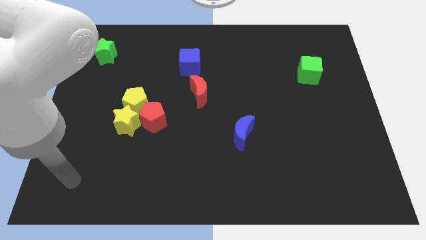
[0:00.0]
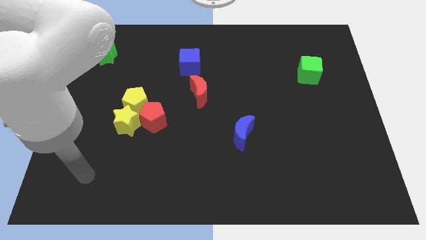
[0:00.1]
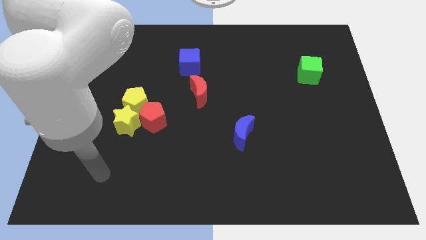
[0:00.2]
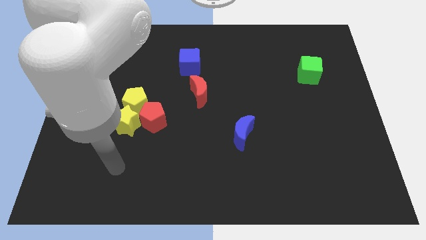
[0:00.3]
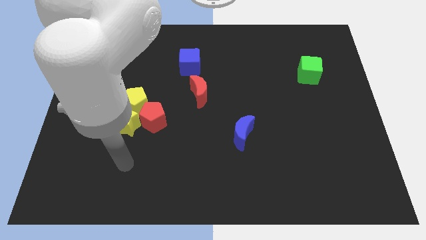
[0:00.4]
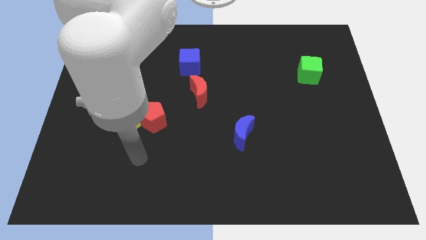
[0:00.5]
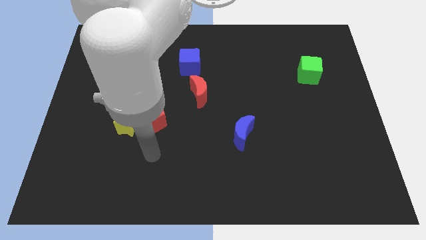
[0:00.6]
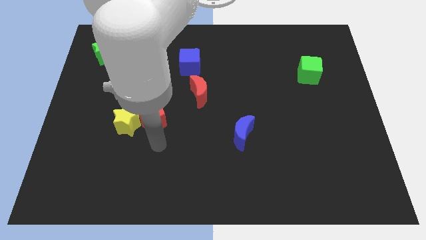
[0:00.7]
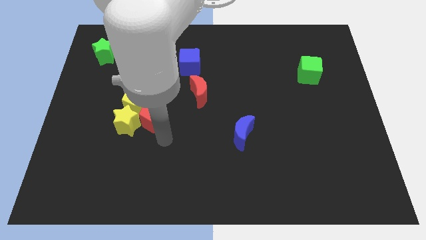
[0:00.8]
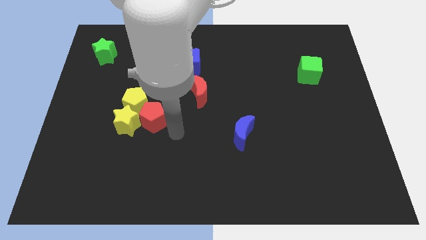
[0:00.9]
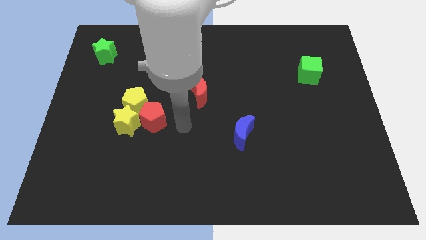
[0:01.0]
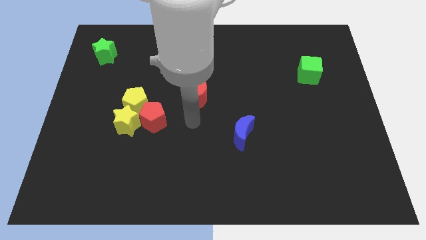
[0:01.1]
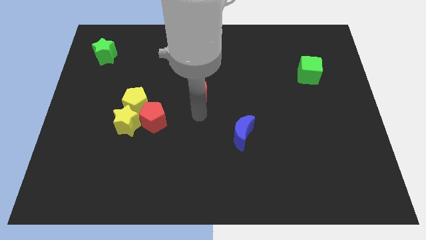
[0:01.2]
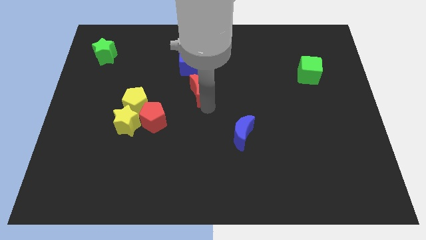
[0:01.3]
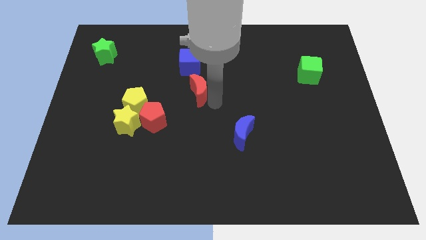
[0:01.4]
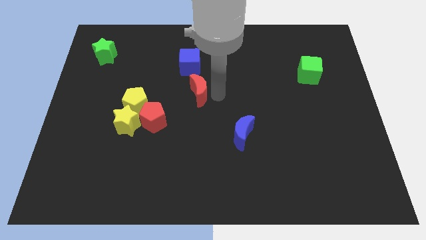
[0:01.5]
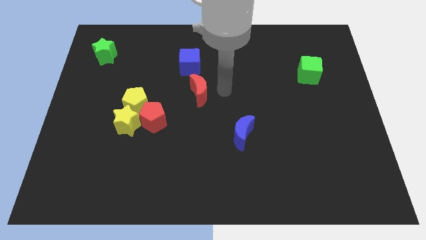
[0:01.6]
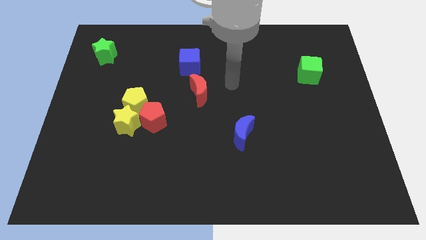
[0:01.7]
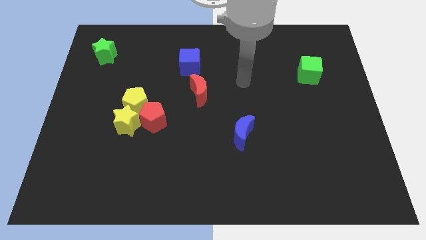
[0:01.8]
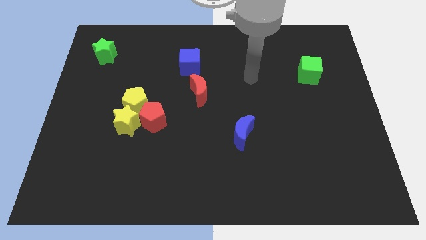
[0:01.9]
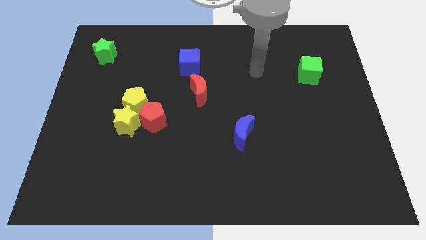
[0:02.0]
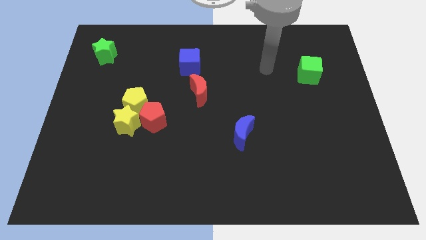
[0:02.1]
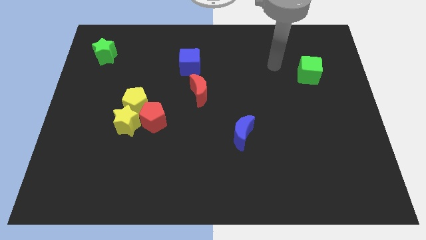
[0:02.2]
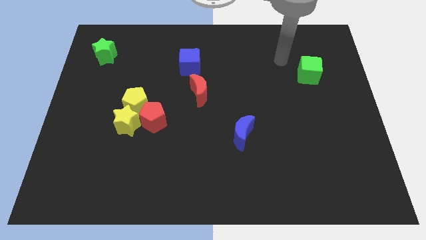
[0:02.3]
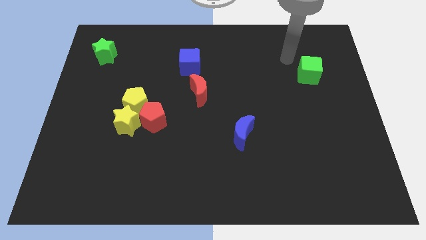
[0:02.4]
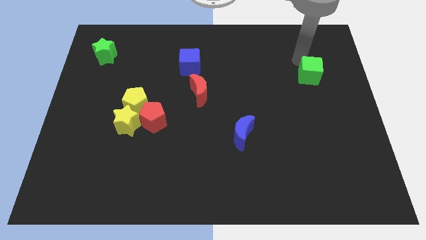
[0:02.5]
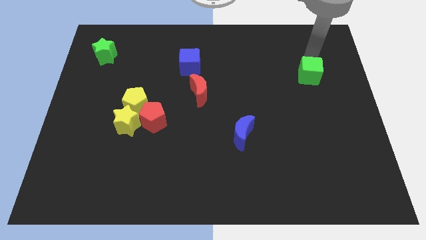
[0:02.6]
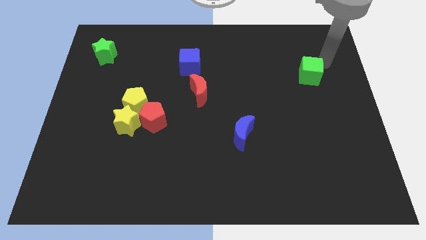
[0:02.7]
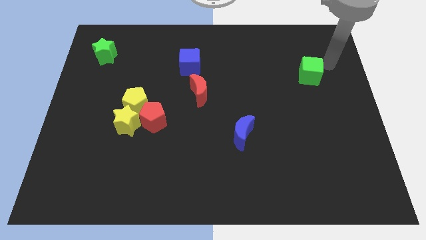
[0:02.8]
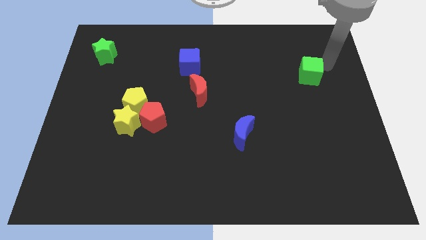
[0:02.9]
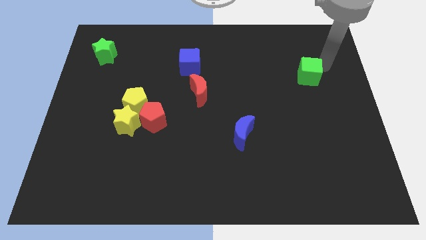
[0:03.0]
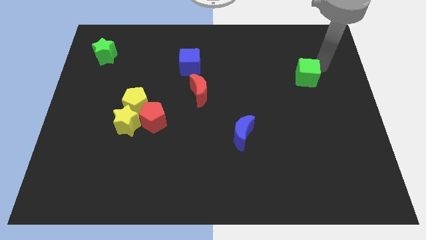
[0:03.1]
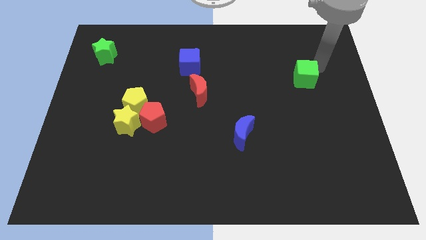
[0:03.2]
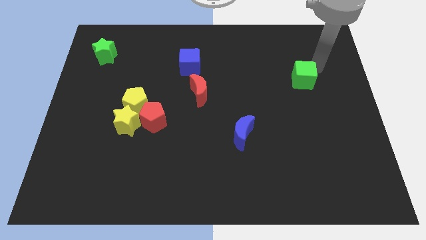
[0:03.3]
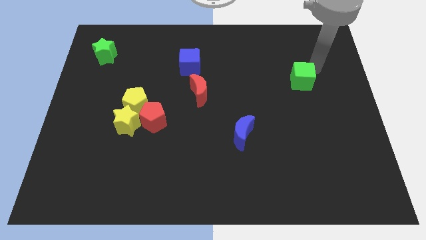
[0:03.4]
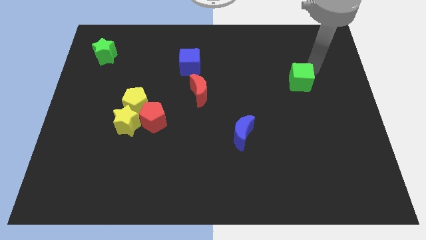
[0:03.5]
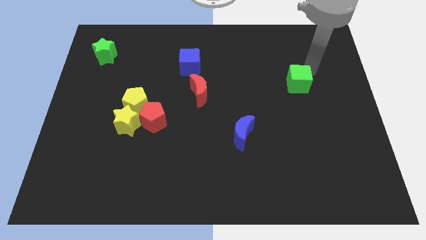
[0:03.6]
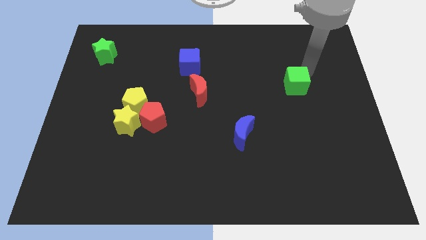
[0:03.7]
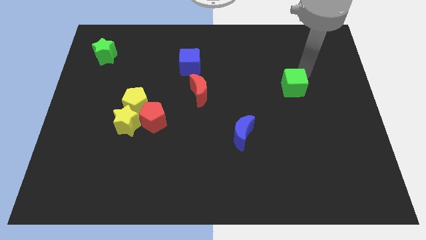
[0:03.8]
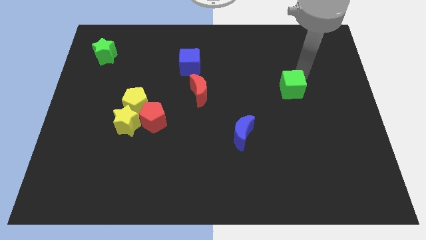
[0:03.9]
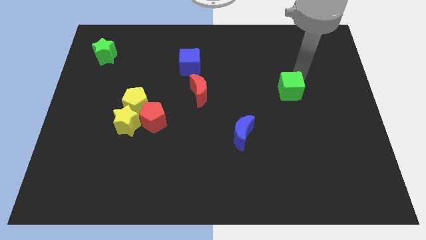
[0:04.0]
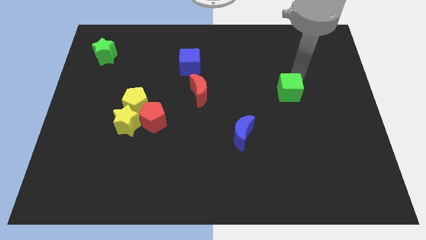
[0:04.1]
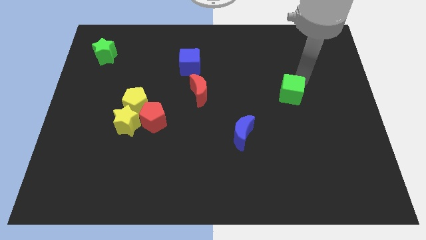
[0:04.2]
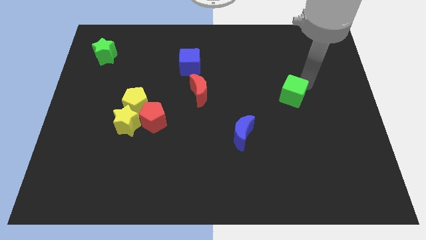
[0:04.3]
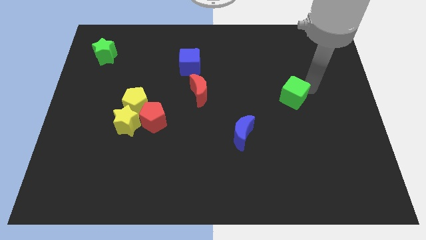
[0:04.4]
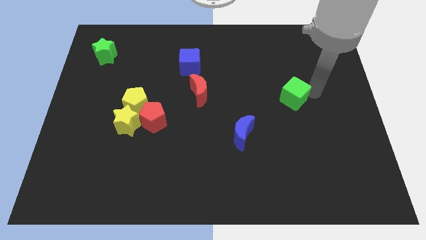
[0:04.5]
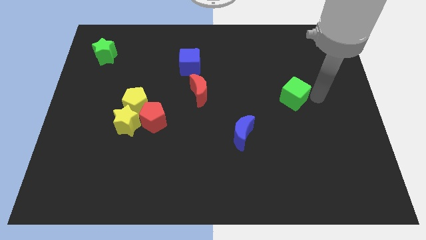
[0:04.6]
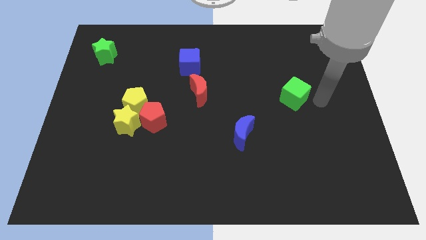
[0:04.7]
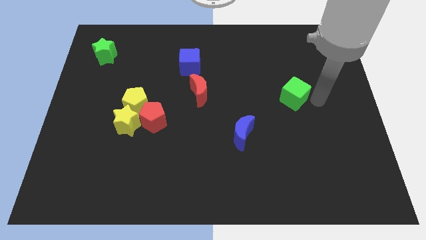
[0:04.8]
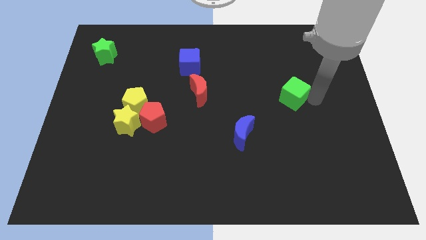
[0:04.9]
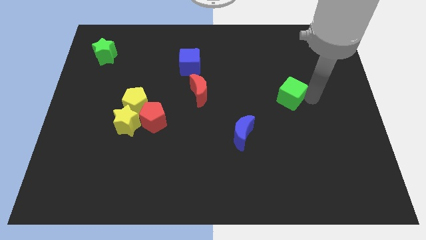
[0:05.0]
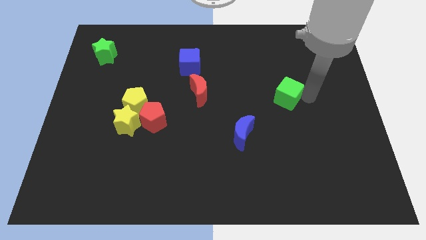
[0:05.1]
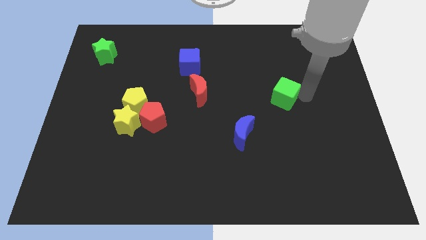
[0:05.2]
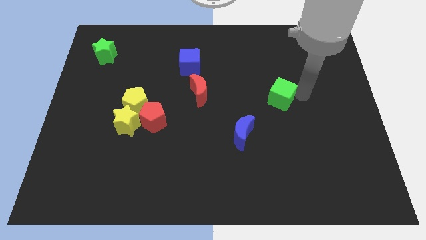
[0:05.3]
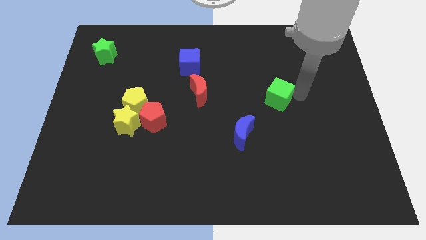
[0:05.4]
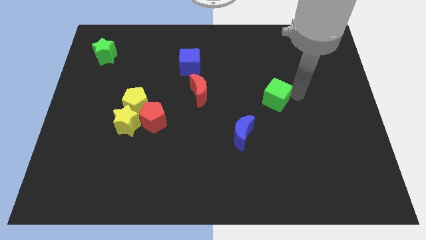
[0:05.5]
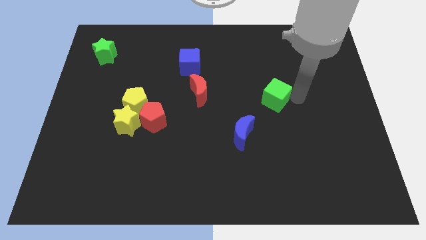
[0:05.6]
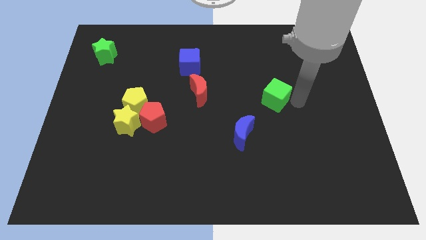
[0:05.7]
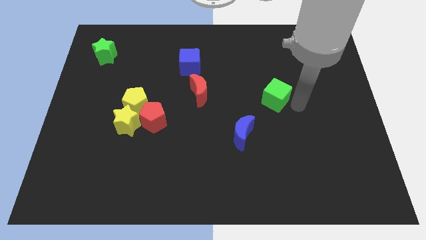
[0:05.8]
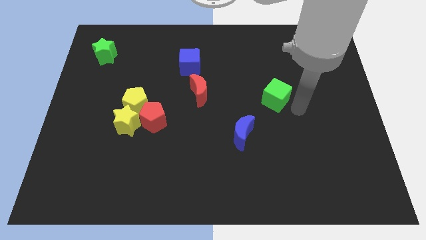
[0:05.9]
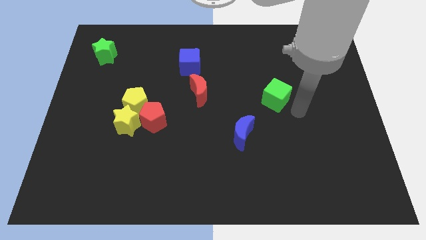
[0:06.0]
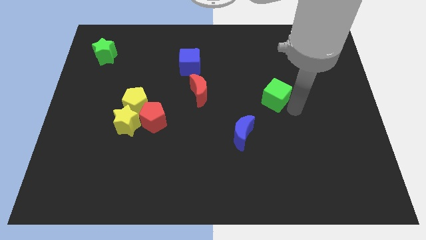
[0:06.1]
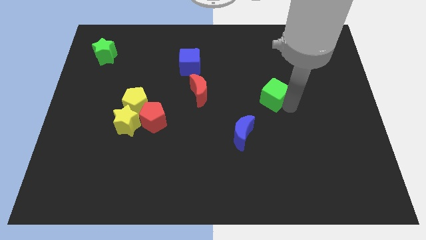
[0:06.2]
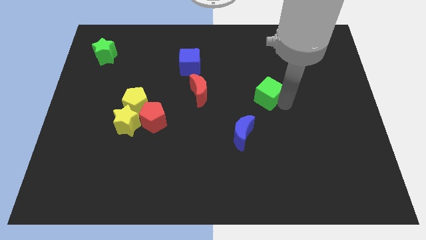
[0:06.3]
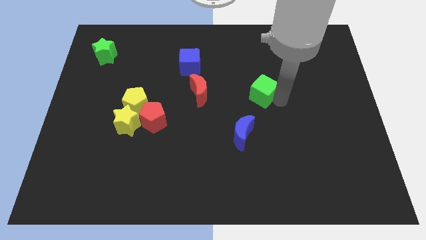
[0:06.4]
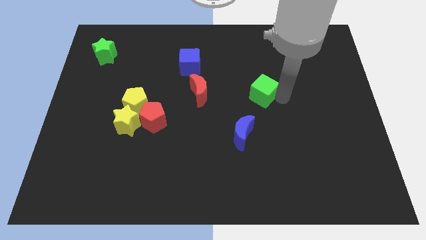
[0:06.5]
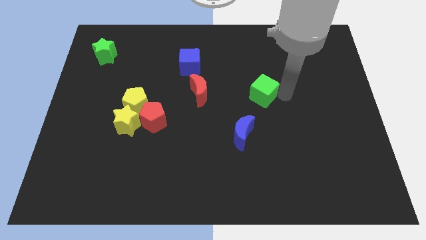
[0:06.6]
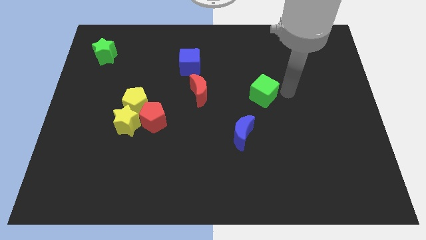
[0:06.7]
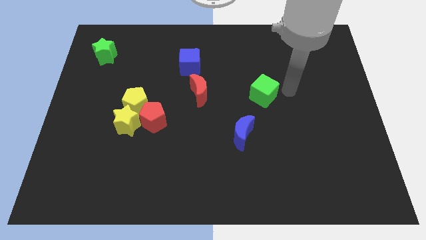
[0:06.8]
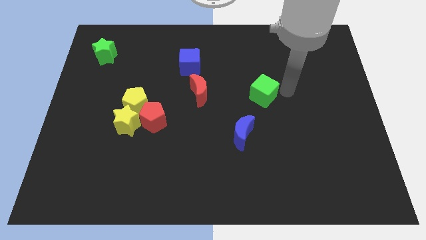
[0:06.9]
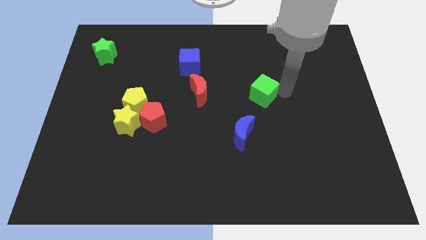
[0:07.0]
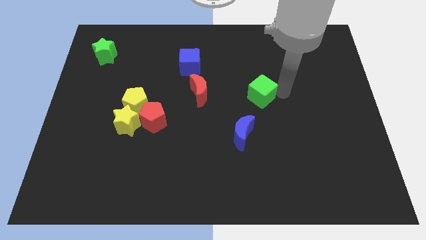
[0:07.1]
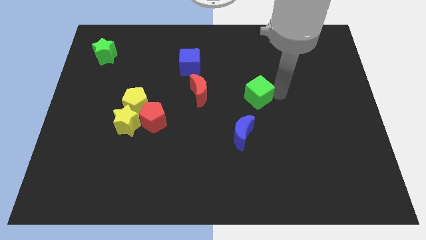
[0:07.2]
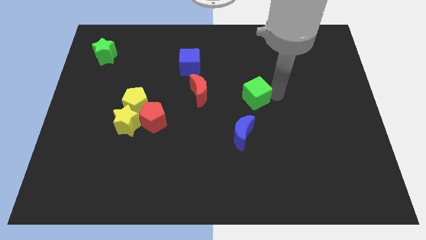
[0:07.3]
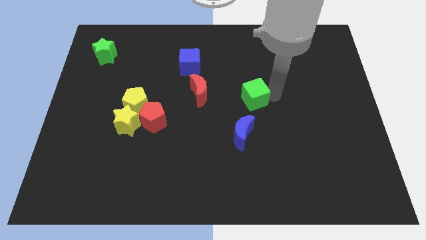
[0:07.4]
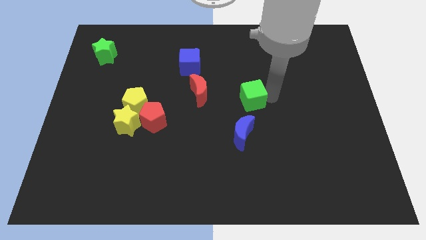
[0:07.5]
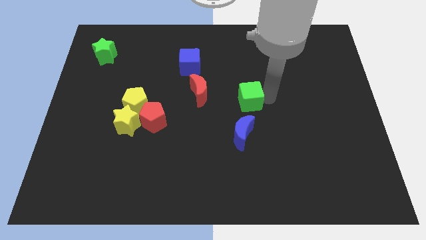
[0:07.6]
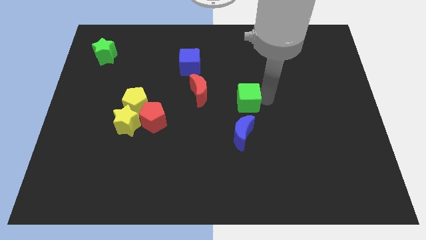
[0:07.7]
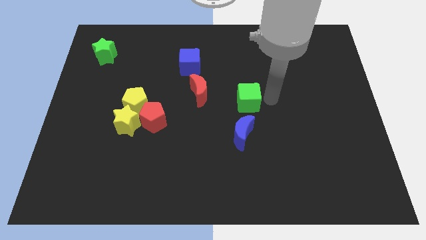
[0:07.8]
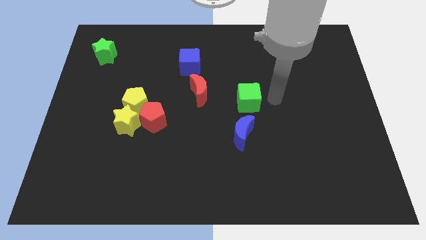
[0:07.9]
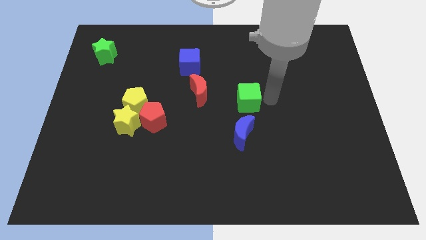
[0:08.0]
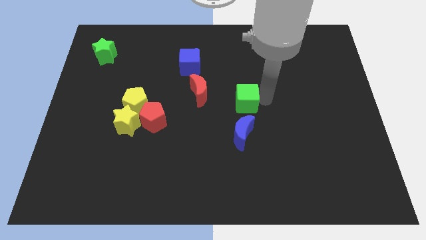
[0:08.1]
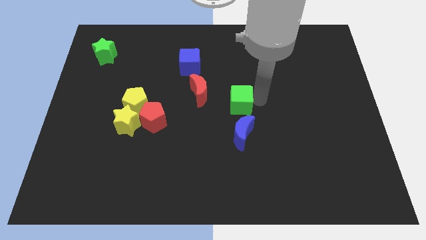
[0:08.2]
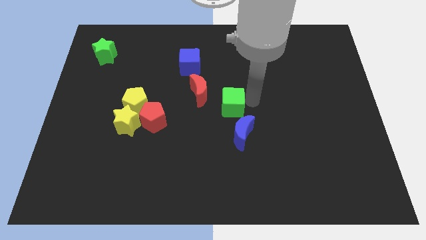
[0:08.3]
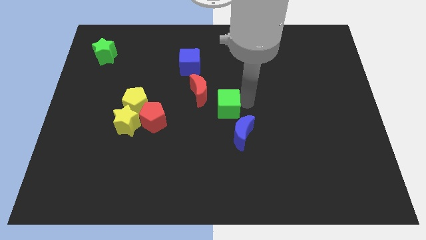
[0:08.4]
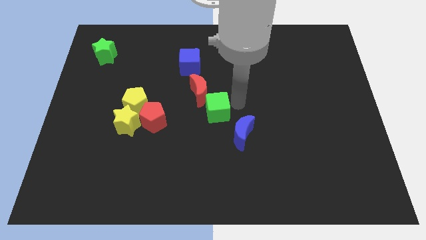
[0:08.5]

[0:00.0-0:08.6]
slide the green cube just right of the red pentagon
